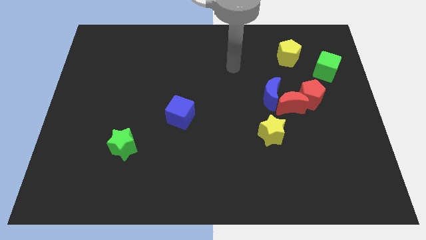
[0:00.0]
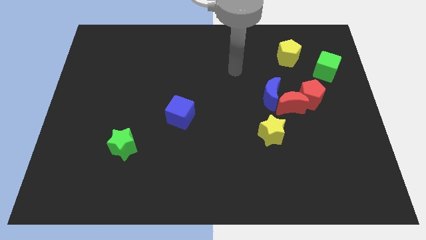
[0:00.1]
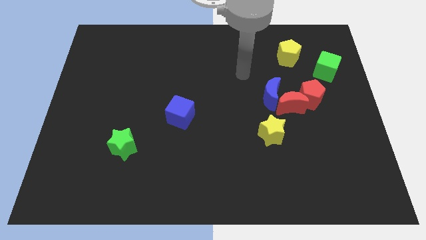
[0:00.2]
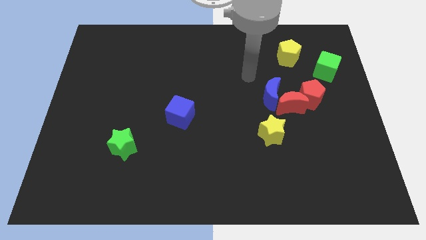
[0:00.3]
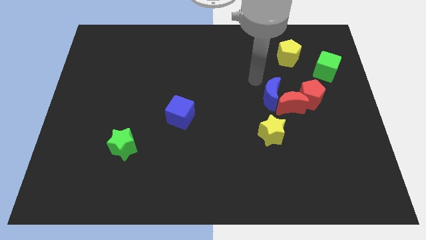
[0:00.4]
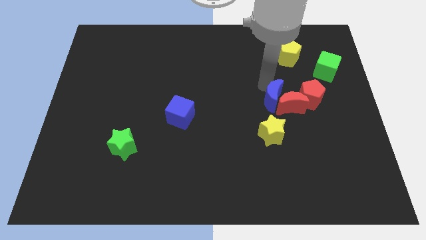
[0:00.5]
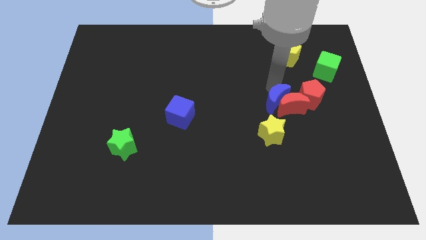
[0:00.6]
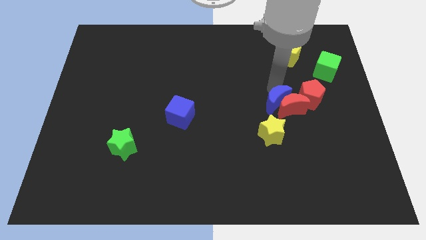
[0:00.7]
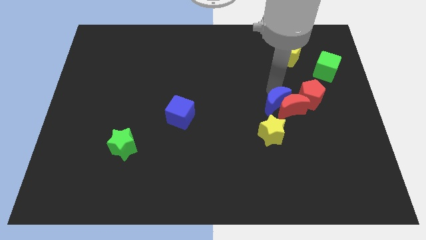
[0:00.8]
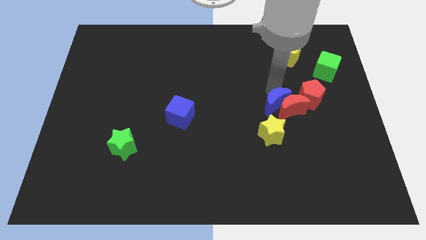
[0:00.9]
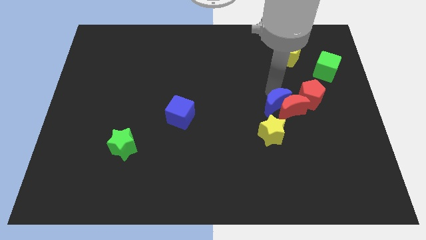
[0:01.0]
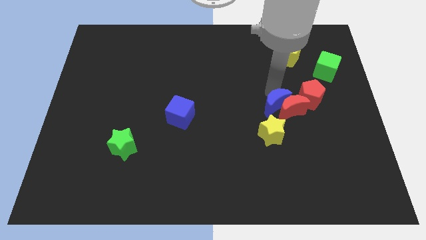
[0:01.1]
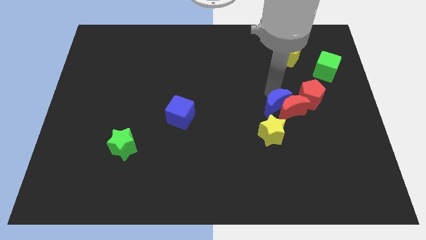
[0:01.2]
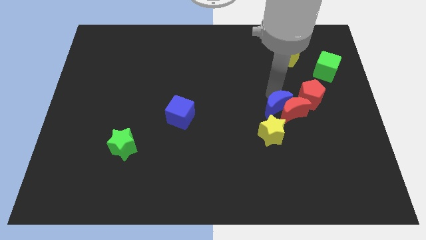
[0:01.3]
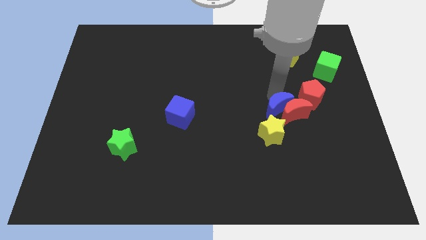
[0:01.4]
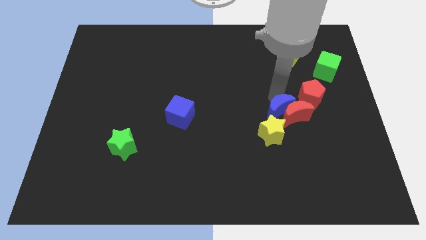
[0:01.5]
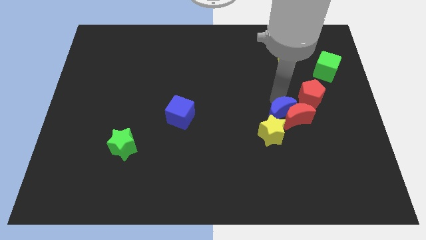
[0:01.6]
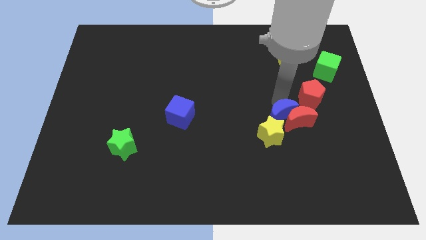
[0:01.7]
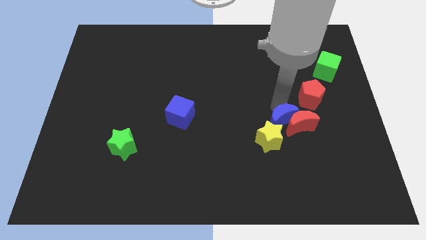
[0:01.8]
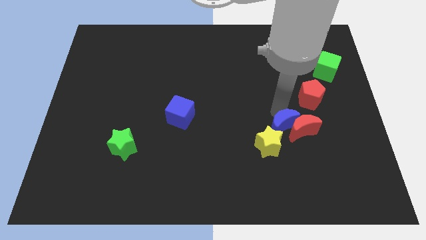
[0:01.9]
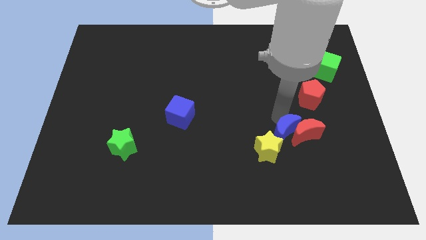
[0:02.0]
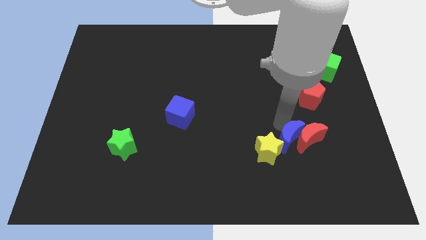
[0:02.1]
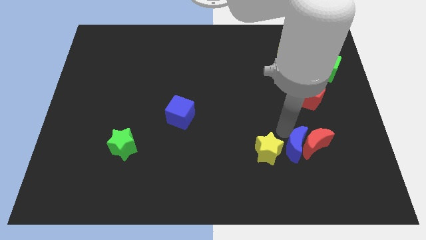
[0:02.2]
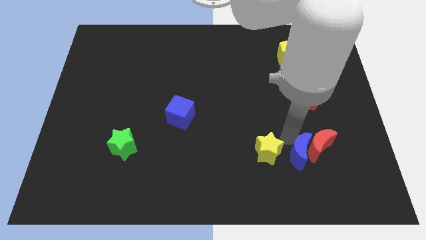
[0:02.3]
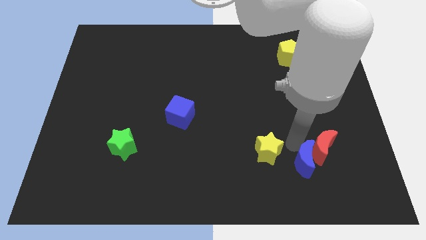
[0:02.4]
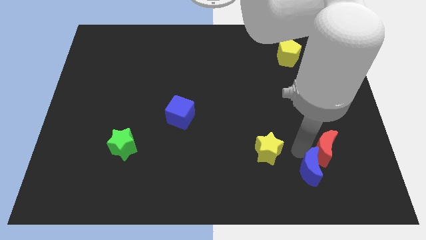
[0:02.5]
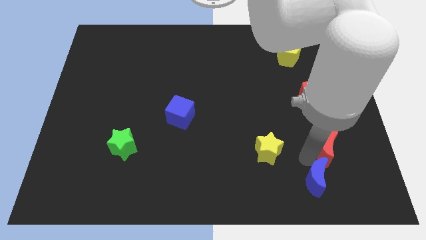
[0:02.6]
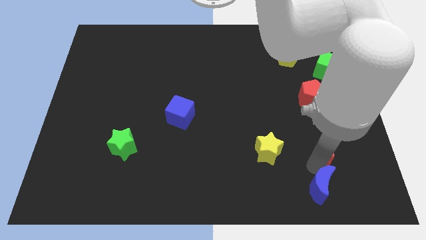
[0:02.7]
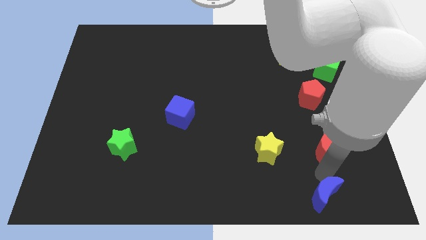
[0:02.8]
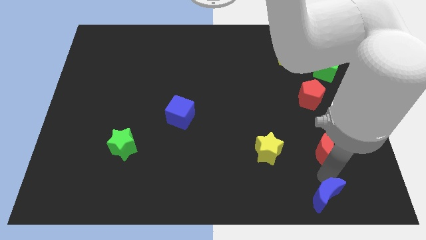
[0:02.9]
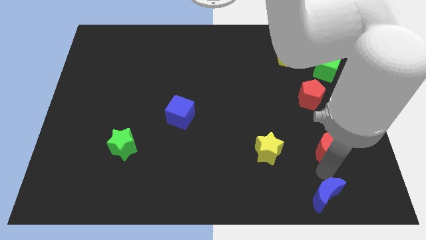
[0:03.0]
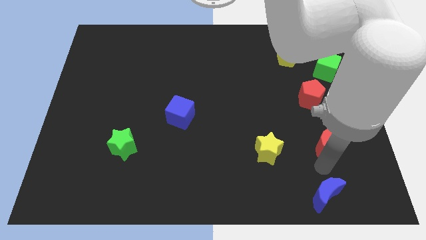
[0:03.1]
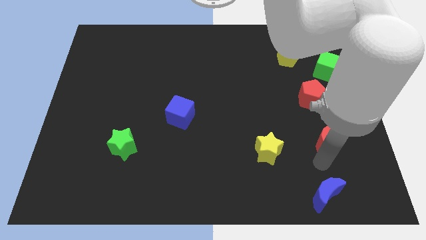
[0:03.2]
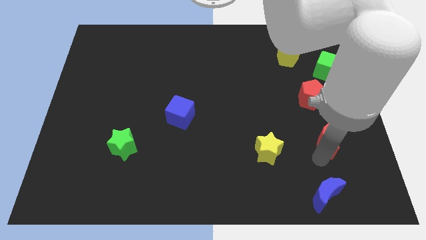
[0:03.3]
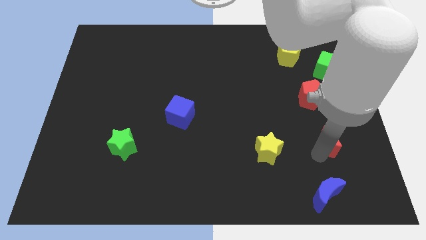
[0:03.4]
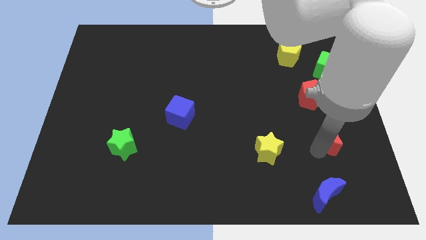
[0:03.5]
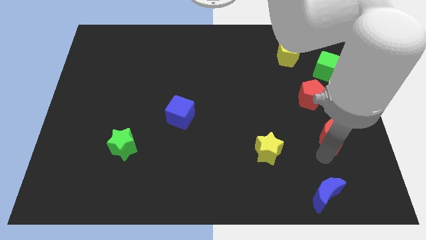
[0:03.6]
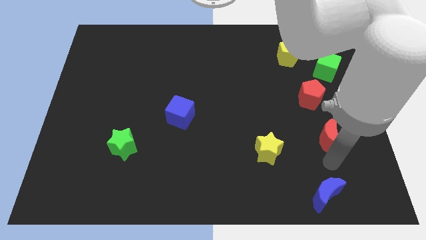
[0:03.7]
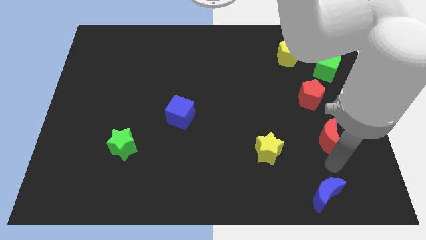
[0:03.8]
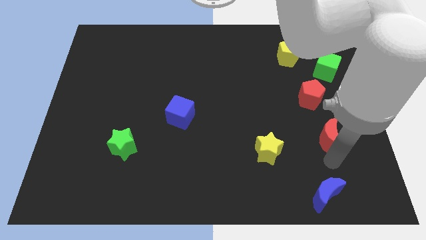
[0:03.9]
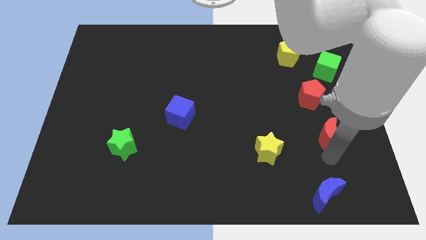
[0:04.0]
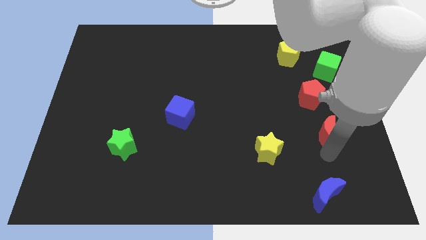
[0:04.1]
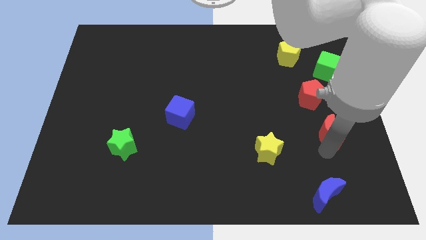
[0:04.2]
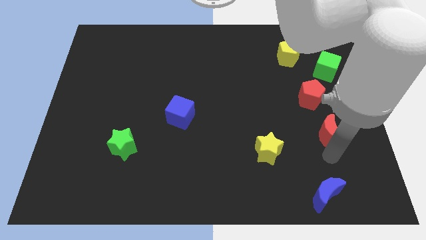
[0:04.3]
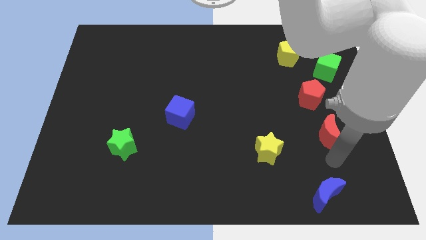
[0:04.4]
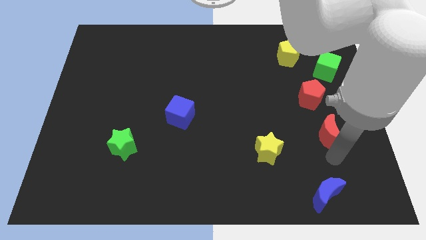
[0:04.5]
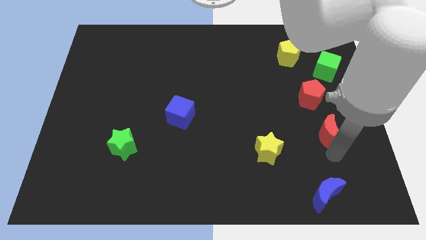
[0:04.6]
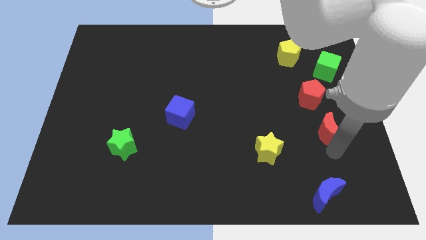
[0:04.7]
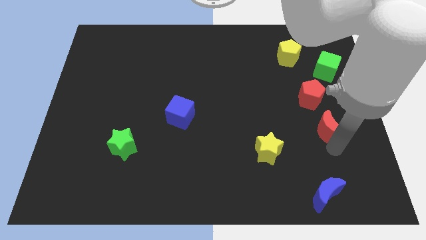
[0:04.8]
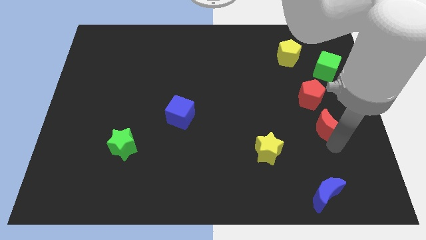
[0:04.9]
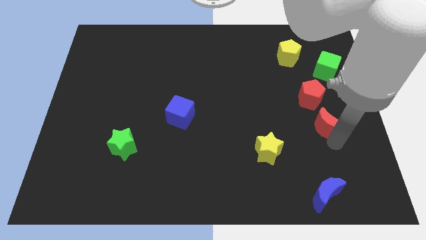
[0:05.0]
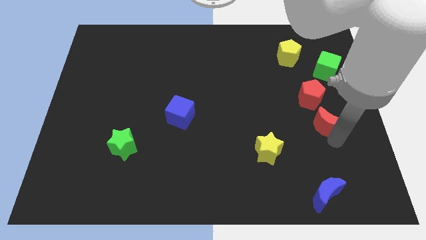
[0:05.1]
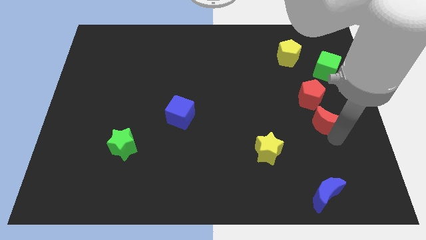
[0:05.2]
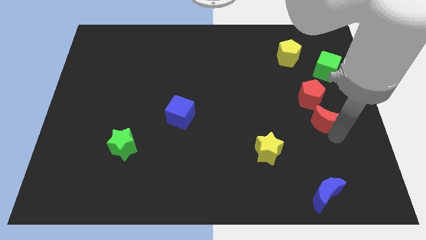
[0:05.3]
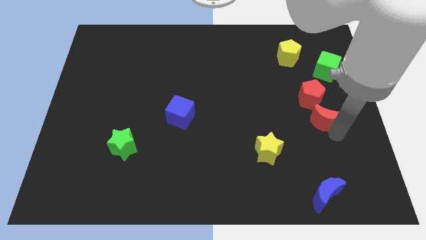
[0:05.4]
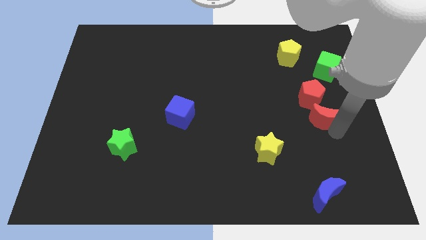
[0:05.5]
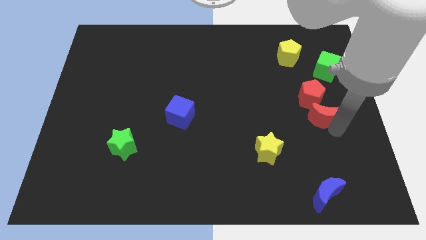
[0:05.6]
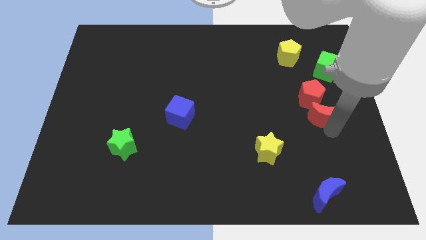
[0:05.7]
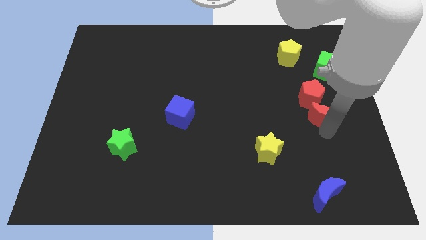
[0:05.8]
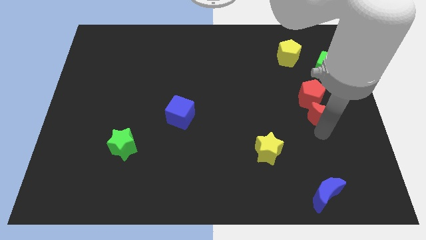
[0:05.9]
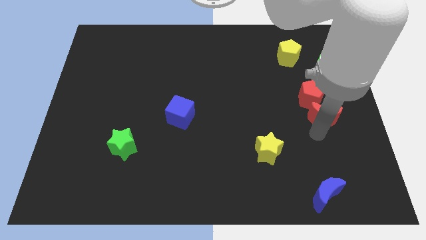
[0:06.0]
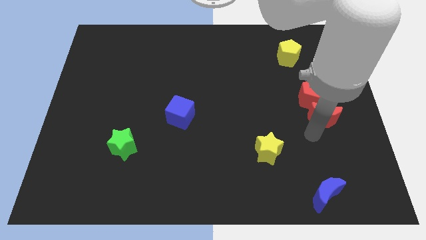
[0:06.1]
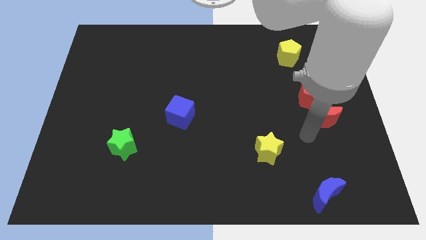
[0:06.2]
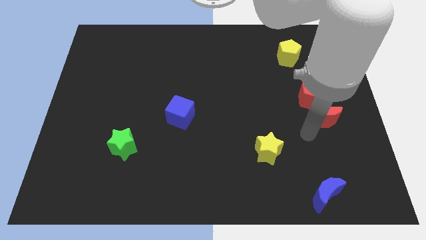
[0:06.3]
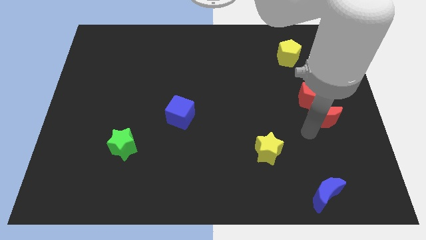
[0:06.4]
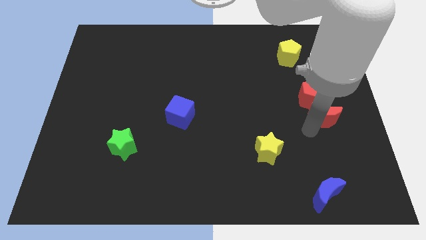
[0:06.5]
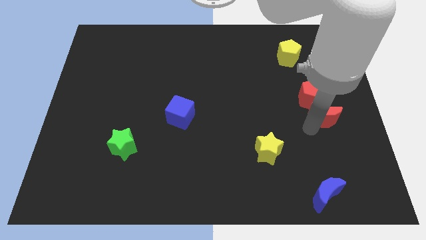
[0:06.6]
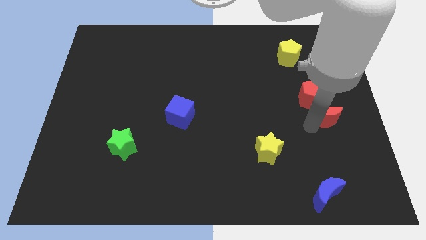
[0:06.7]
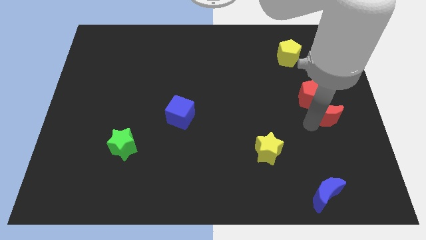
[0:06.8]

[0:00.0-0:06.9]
move the red moon away from the clump

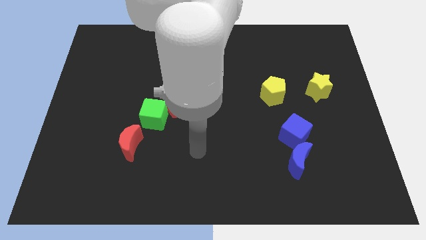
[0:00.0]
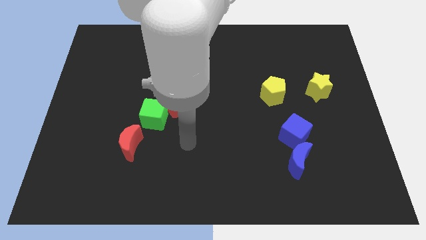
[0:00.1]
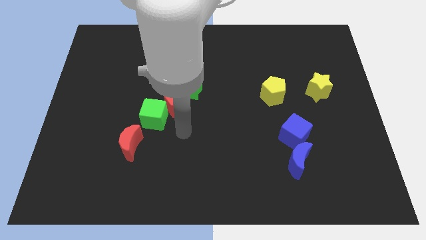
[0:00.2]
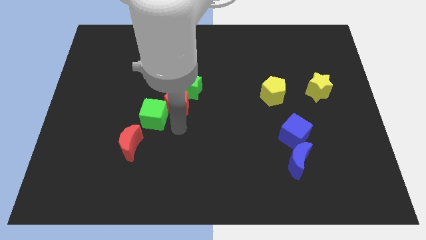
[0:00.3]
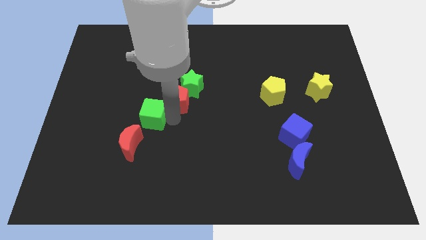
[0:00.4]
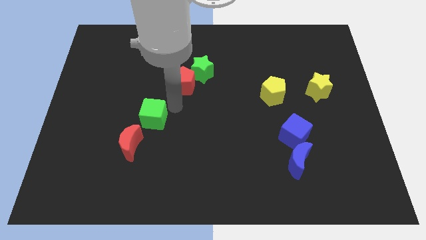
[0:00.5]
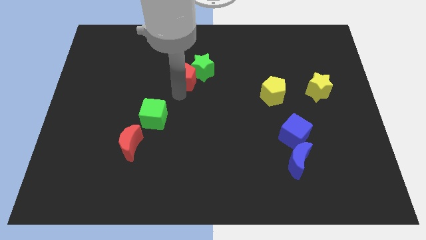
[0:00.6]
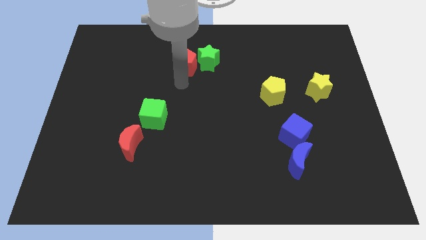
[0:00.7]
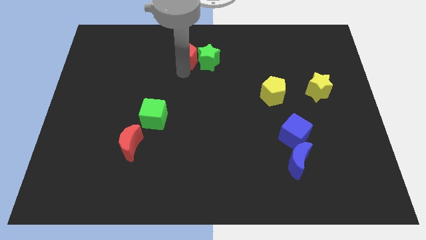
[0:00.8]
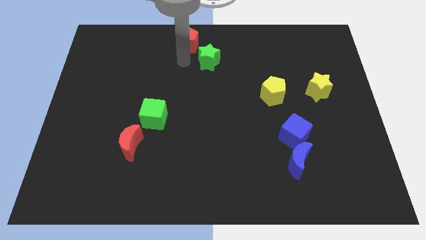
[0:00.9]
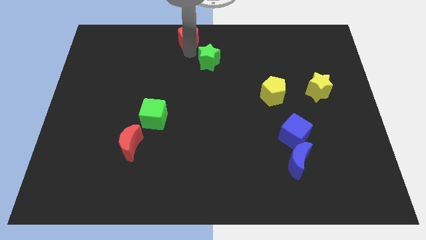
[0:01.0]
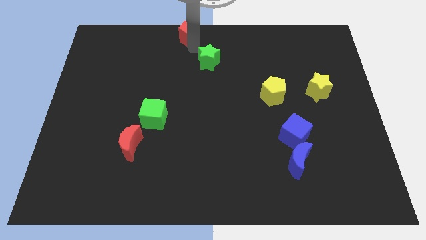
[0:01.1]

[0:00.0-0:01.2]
pull the green star apart from the red pentagon

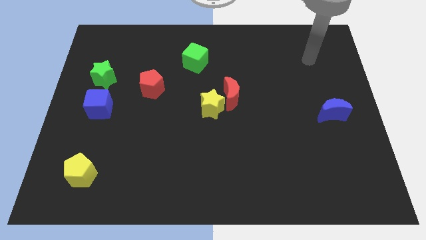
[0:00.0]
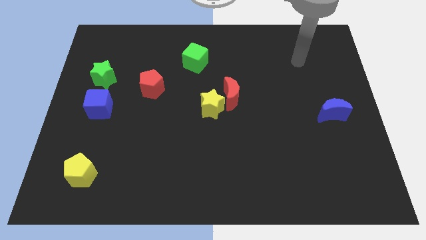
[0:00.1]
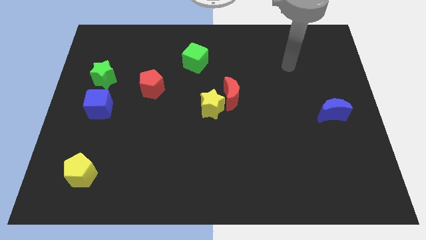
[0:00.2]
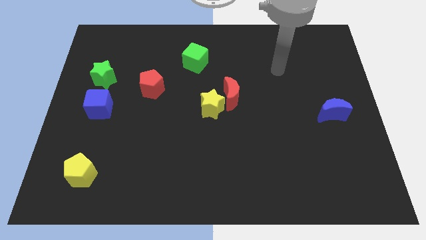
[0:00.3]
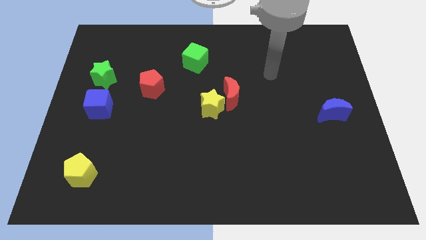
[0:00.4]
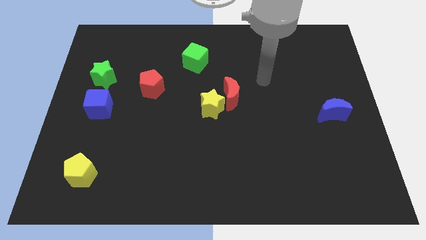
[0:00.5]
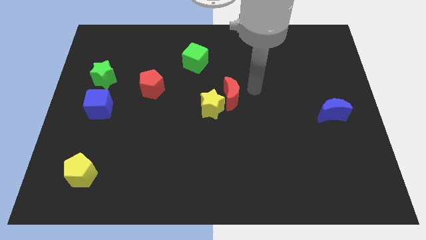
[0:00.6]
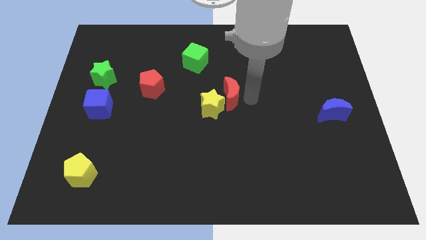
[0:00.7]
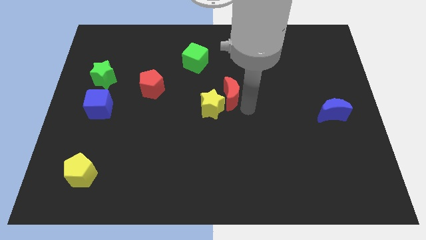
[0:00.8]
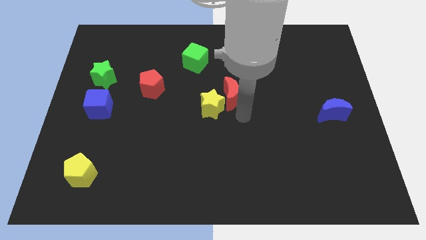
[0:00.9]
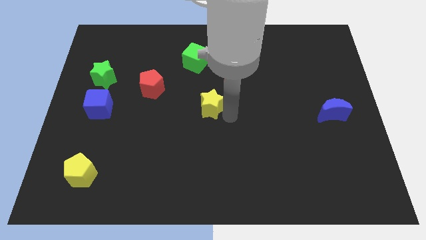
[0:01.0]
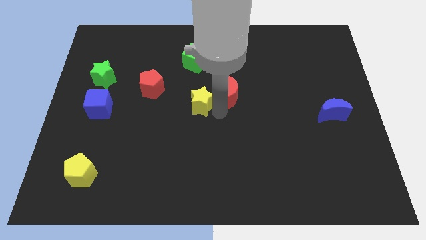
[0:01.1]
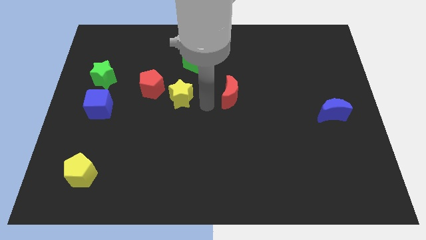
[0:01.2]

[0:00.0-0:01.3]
pull the red moon apart from the yellow star
